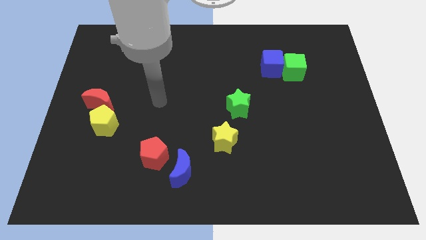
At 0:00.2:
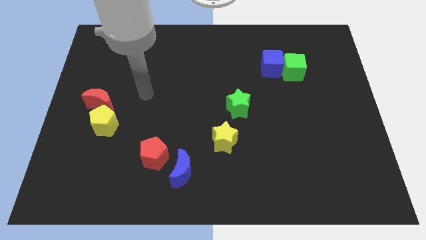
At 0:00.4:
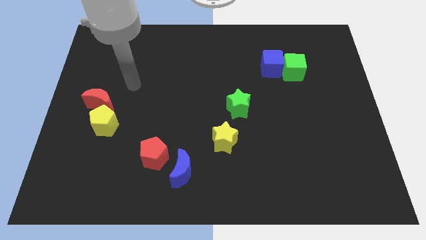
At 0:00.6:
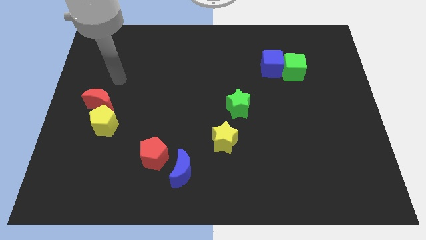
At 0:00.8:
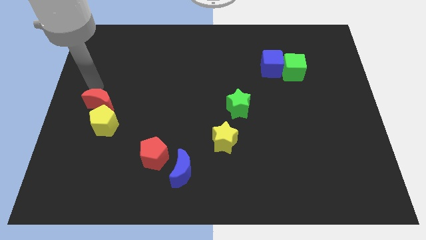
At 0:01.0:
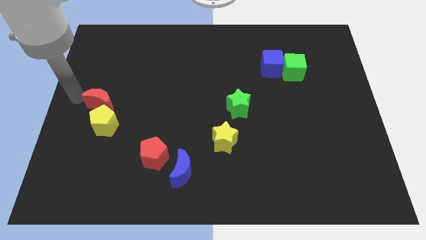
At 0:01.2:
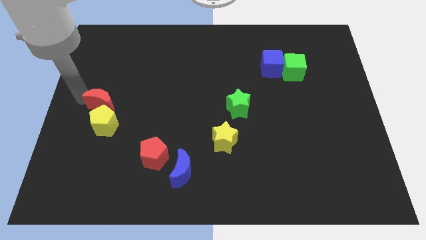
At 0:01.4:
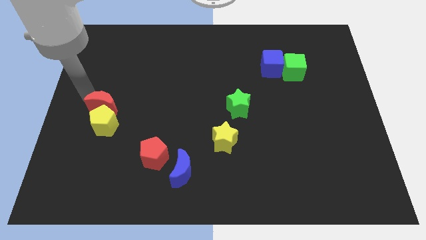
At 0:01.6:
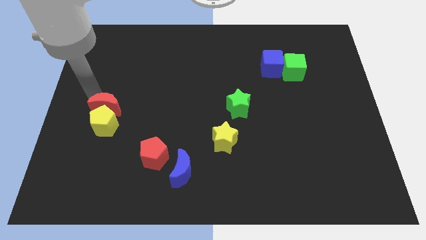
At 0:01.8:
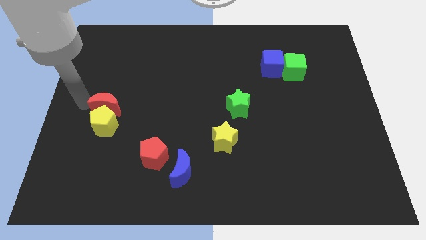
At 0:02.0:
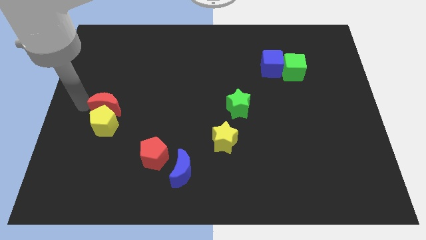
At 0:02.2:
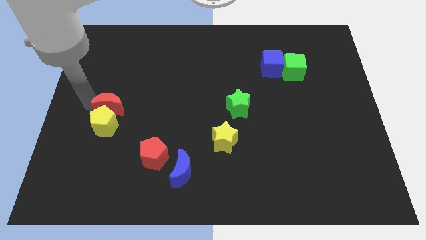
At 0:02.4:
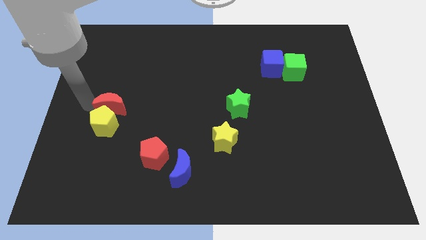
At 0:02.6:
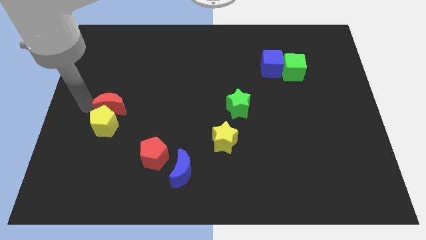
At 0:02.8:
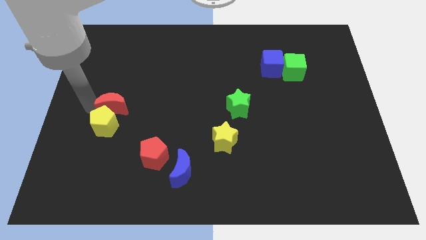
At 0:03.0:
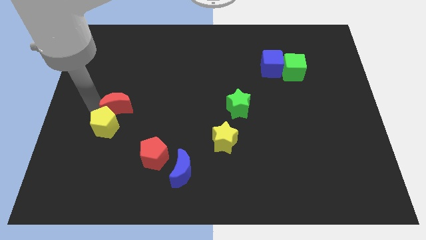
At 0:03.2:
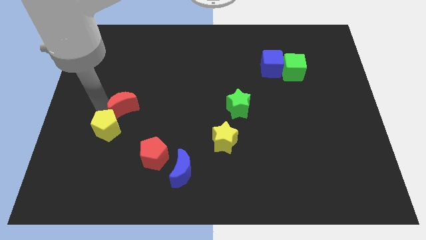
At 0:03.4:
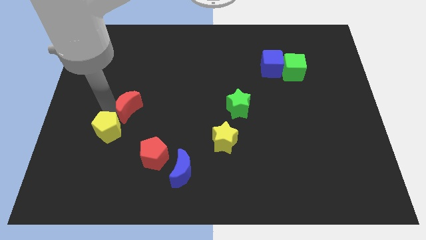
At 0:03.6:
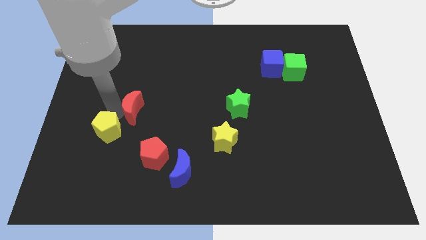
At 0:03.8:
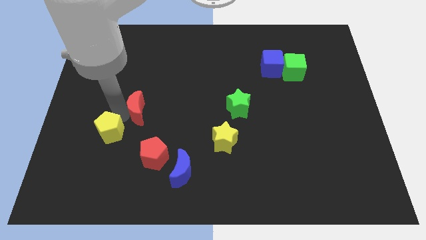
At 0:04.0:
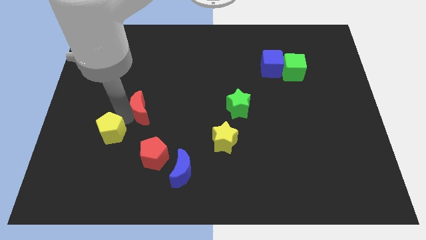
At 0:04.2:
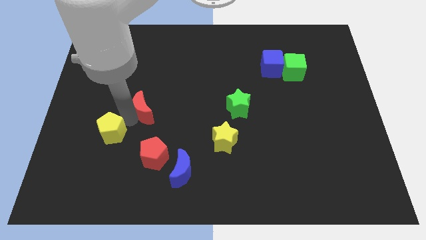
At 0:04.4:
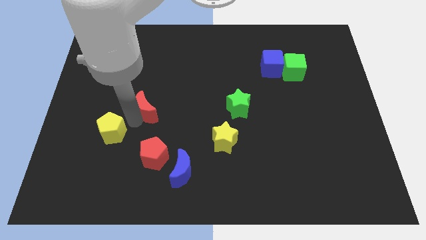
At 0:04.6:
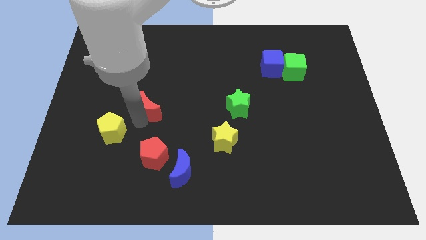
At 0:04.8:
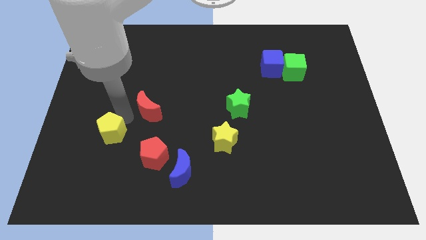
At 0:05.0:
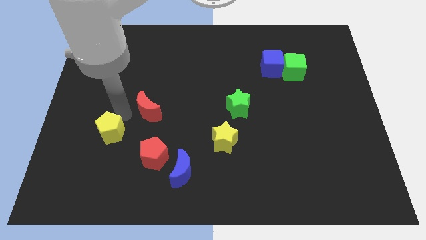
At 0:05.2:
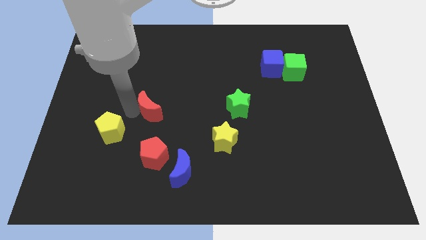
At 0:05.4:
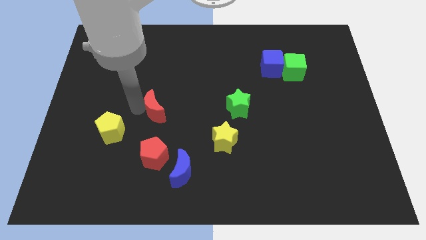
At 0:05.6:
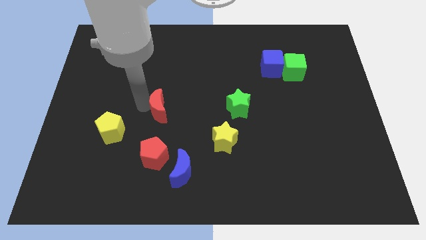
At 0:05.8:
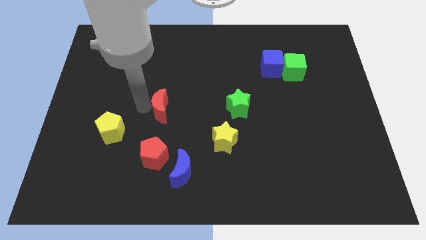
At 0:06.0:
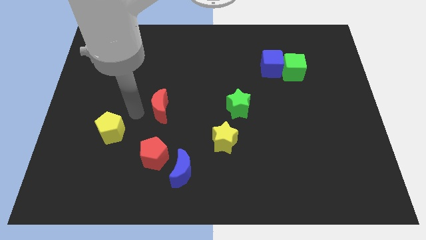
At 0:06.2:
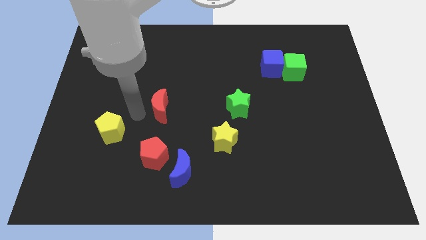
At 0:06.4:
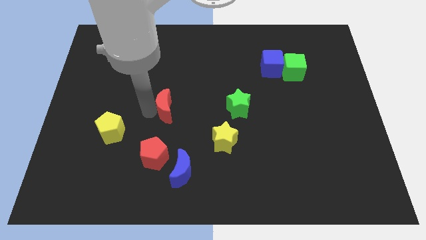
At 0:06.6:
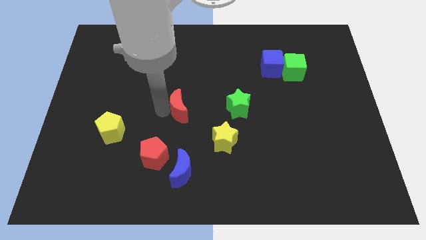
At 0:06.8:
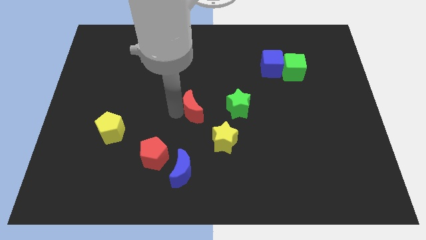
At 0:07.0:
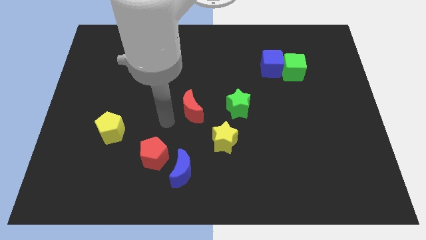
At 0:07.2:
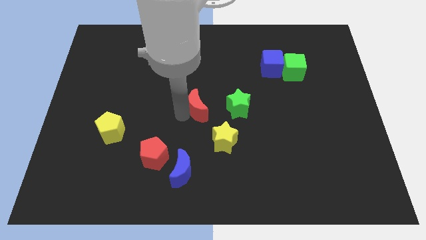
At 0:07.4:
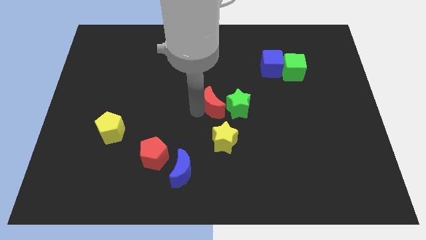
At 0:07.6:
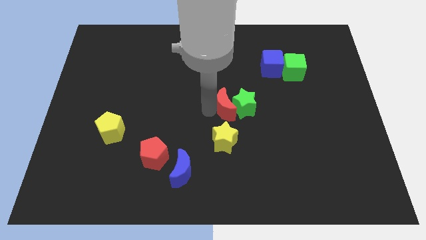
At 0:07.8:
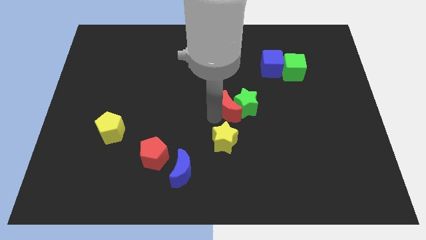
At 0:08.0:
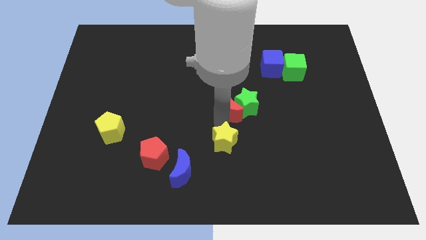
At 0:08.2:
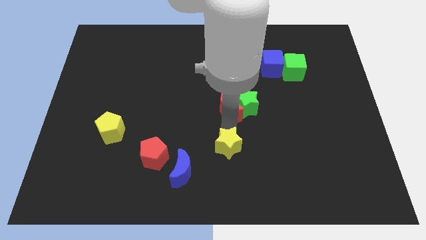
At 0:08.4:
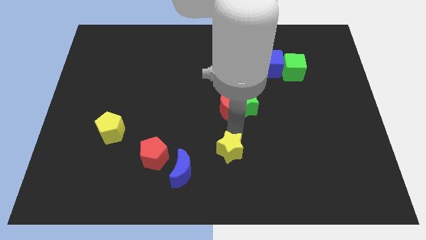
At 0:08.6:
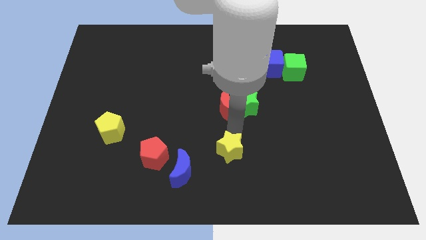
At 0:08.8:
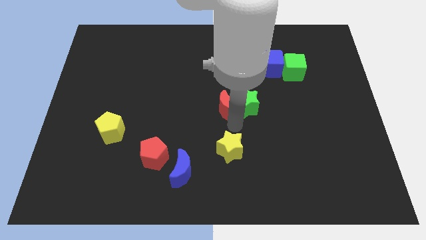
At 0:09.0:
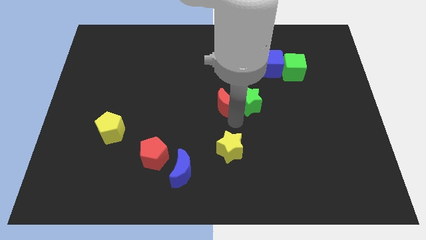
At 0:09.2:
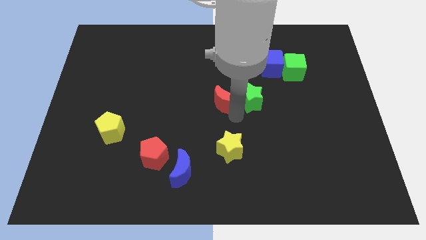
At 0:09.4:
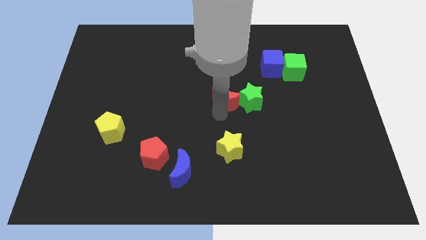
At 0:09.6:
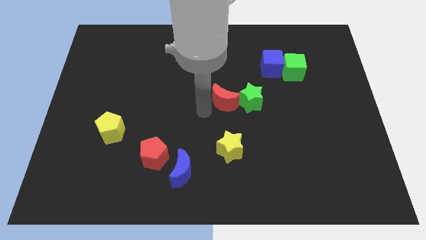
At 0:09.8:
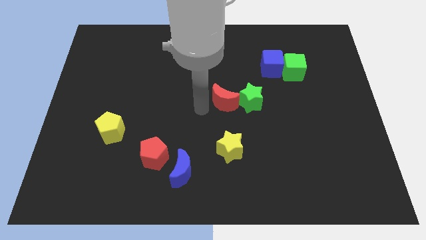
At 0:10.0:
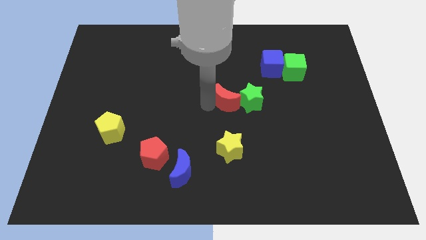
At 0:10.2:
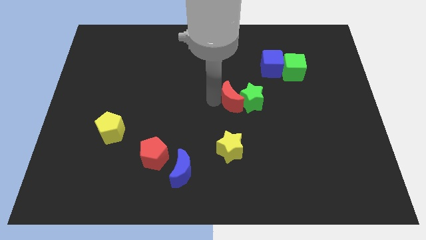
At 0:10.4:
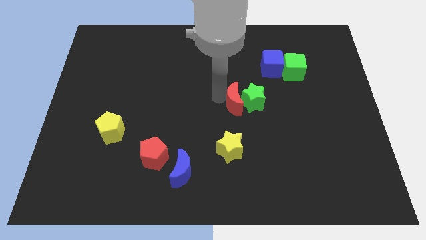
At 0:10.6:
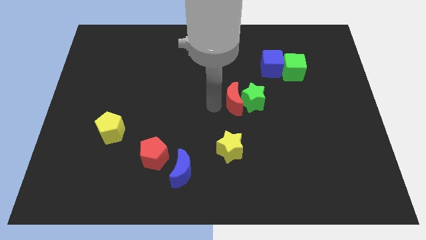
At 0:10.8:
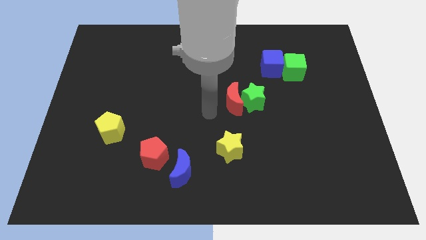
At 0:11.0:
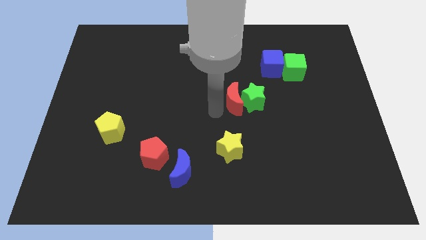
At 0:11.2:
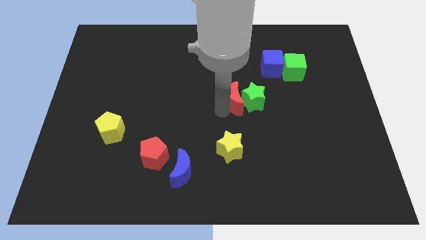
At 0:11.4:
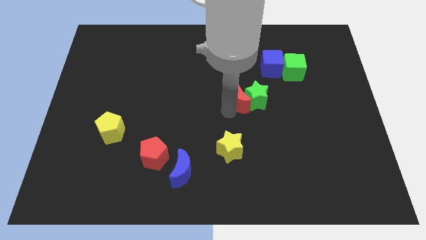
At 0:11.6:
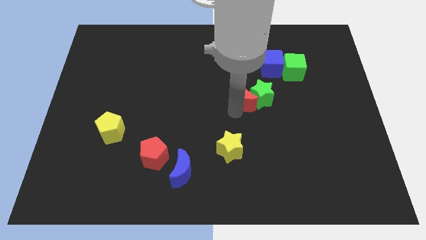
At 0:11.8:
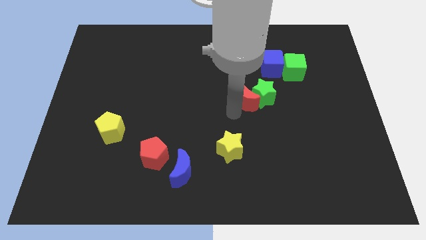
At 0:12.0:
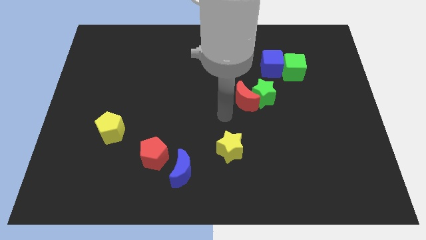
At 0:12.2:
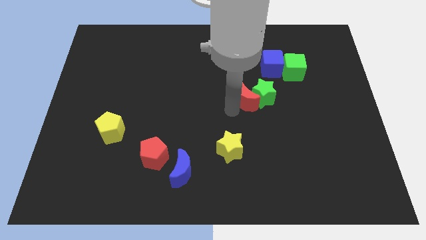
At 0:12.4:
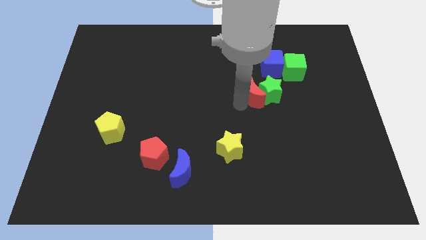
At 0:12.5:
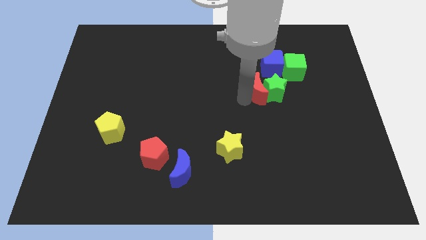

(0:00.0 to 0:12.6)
put the red moon below the blue cube

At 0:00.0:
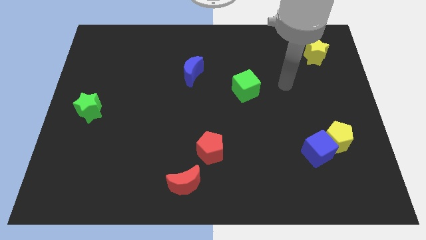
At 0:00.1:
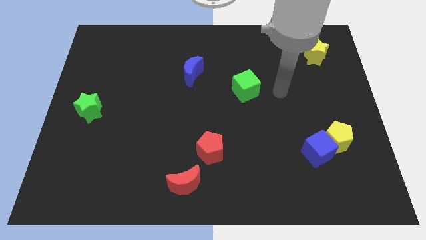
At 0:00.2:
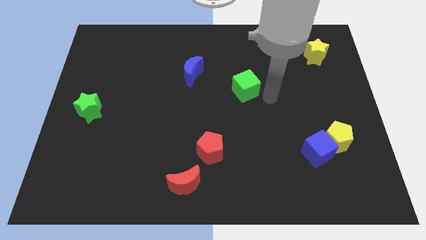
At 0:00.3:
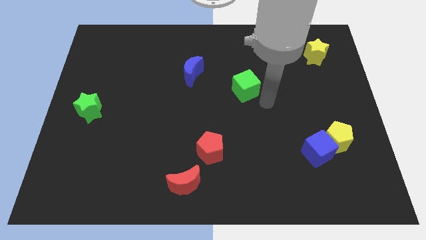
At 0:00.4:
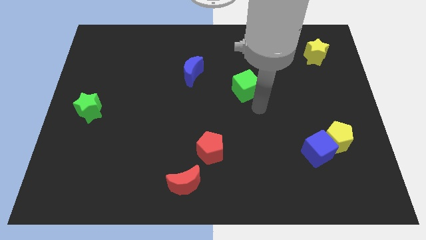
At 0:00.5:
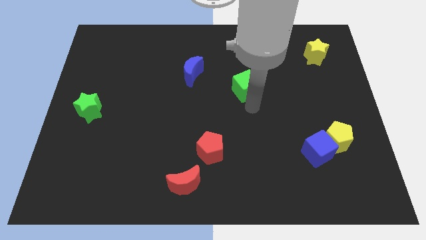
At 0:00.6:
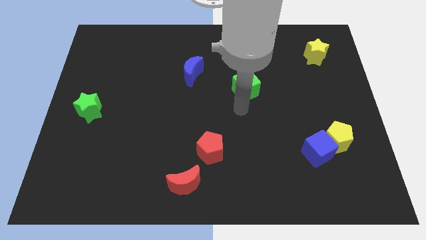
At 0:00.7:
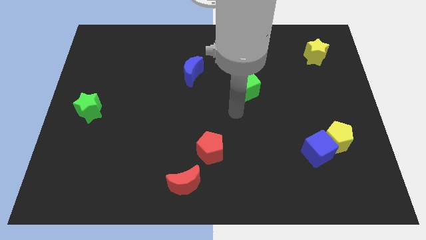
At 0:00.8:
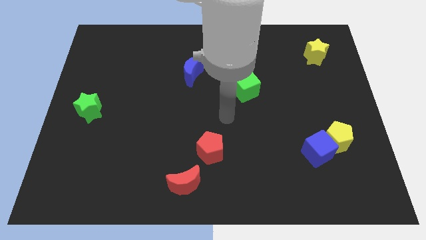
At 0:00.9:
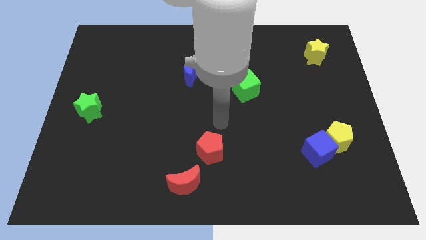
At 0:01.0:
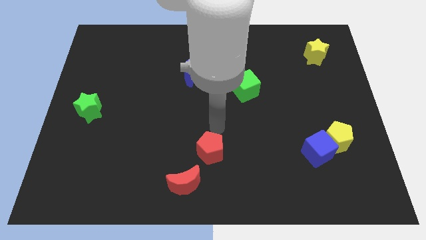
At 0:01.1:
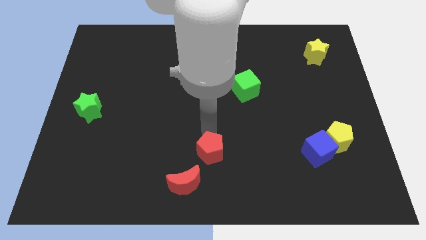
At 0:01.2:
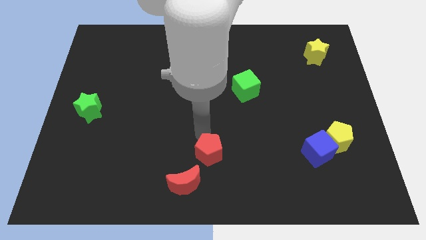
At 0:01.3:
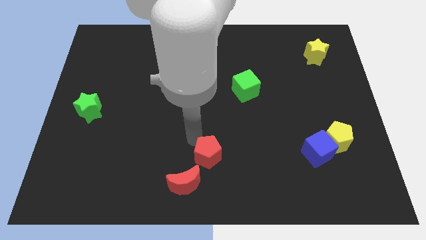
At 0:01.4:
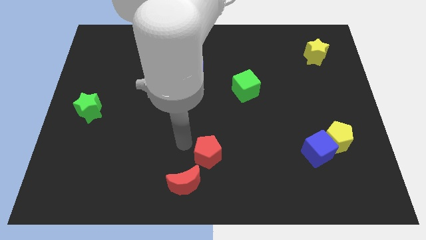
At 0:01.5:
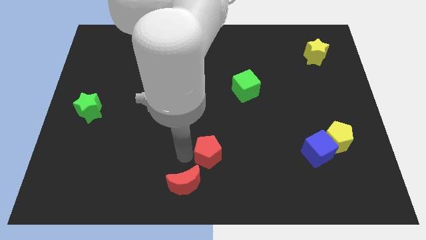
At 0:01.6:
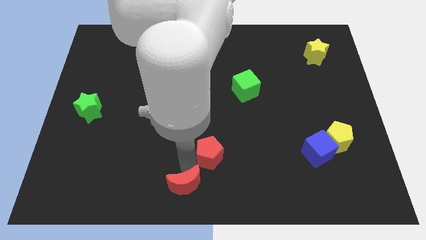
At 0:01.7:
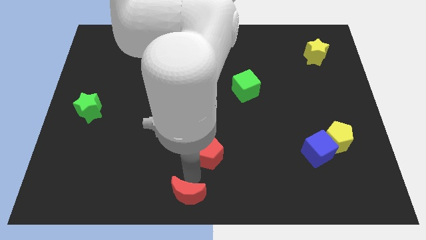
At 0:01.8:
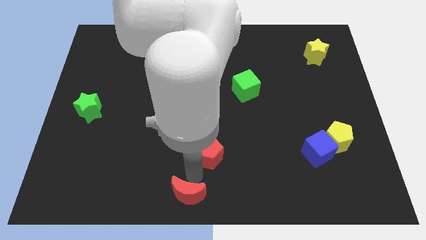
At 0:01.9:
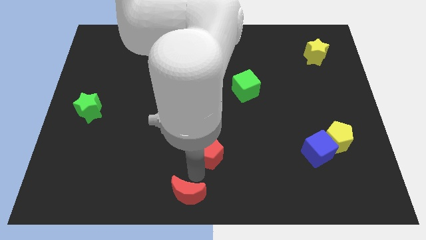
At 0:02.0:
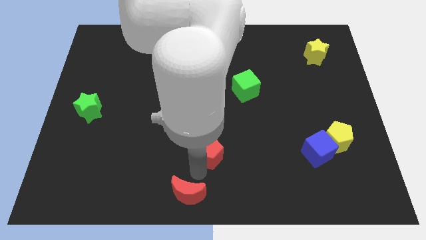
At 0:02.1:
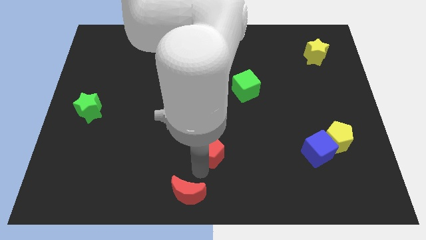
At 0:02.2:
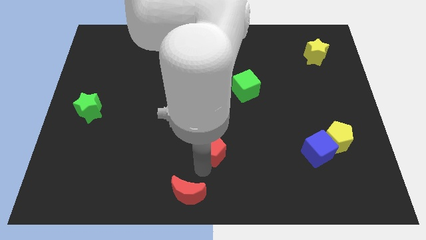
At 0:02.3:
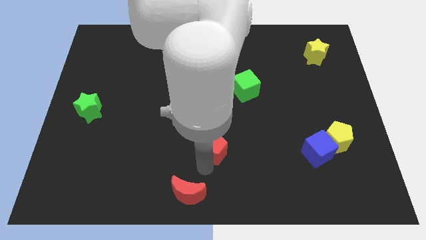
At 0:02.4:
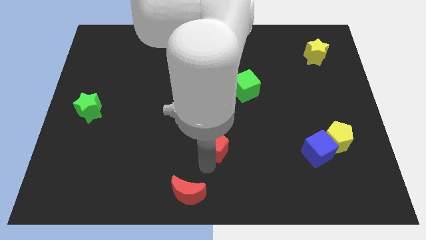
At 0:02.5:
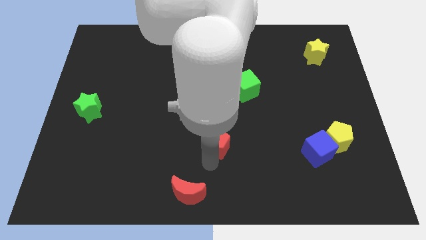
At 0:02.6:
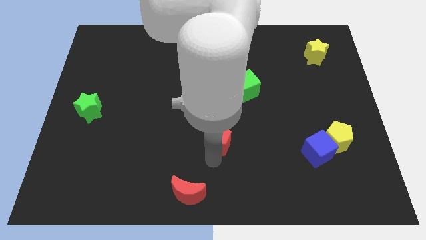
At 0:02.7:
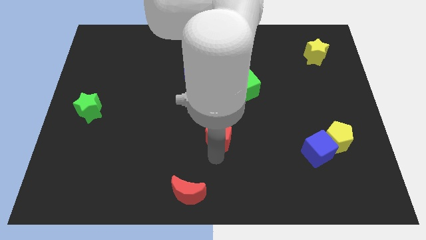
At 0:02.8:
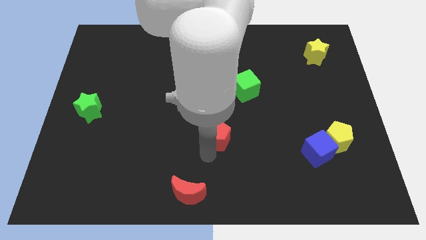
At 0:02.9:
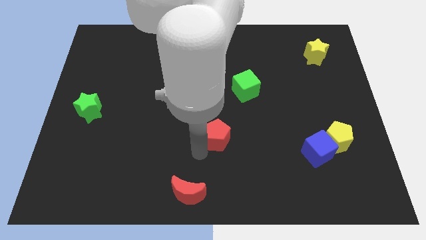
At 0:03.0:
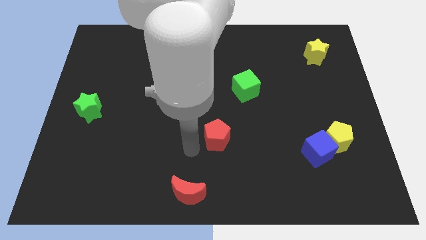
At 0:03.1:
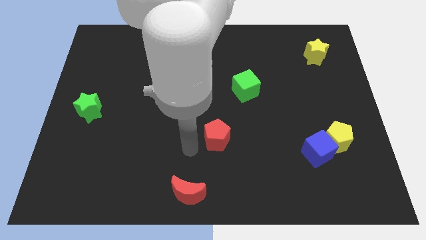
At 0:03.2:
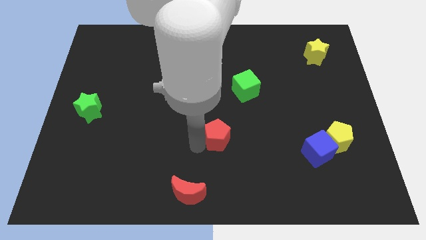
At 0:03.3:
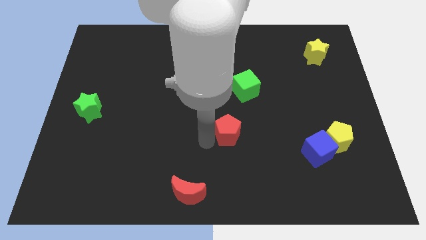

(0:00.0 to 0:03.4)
slide the red pentagon to the bottom side of the green cube
